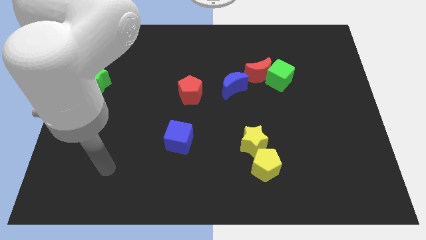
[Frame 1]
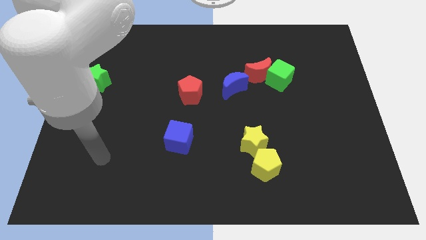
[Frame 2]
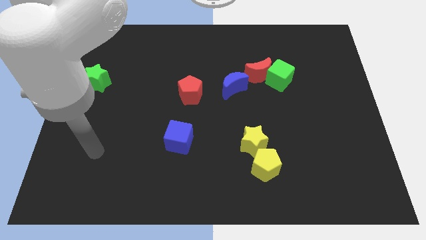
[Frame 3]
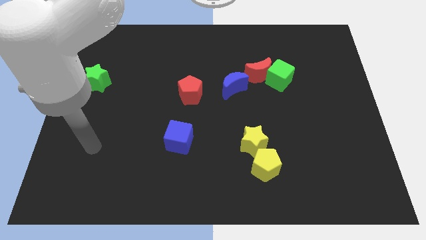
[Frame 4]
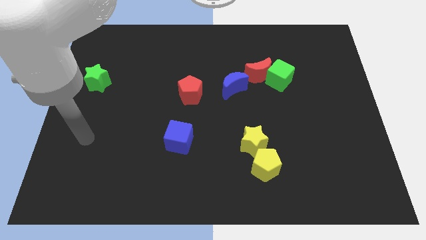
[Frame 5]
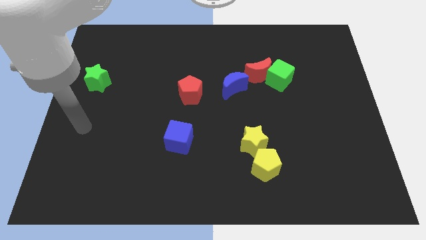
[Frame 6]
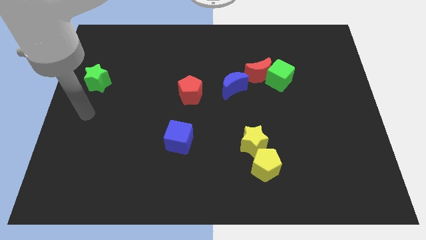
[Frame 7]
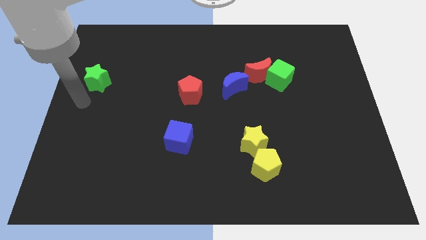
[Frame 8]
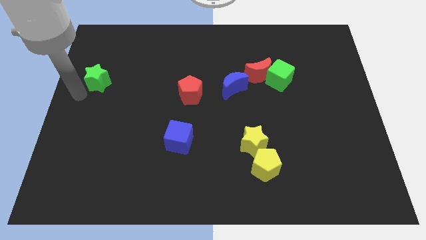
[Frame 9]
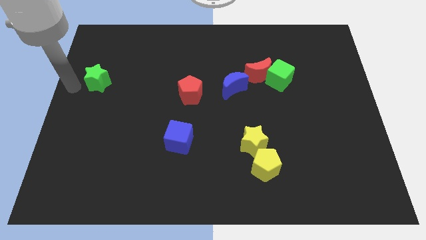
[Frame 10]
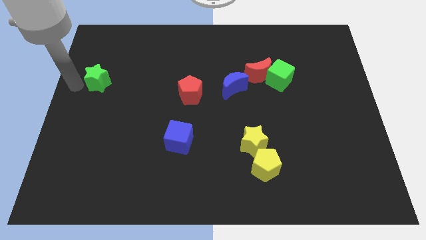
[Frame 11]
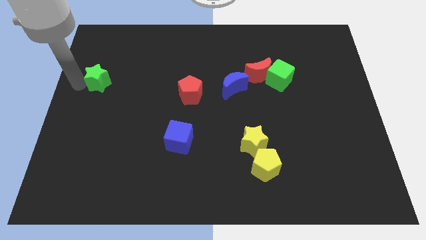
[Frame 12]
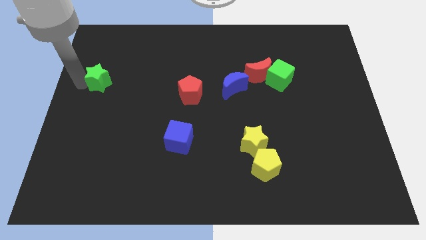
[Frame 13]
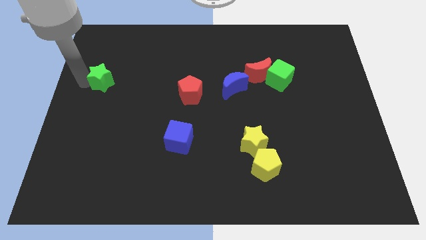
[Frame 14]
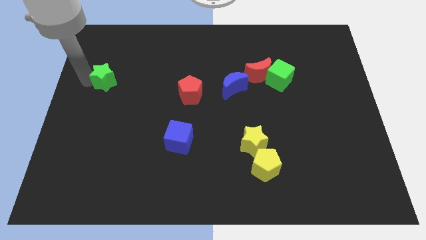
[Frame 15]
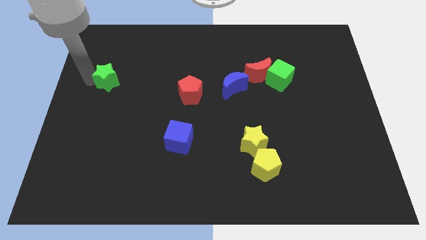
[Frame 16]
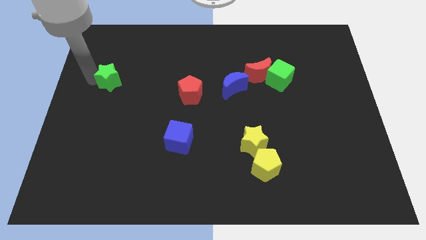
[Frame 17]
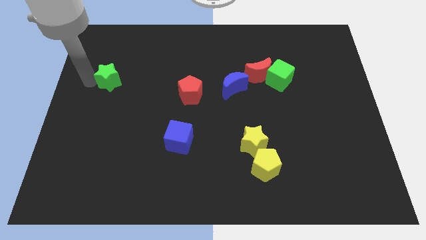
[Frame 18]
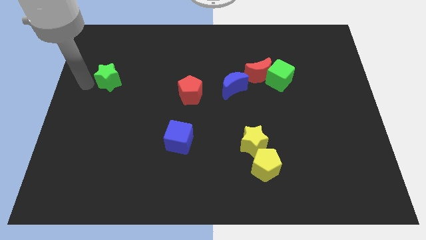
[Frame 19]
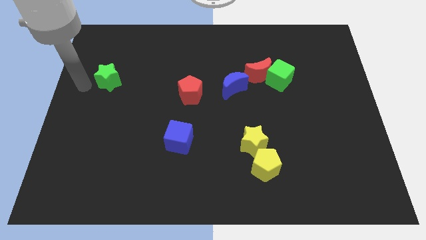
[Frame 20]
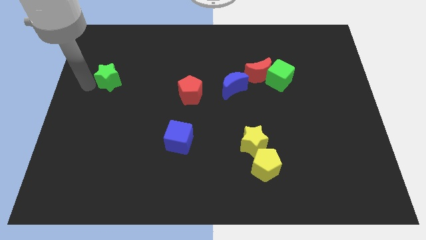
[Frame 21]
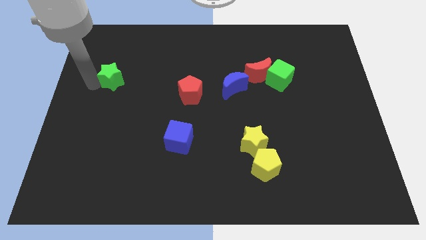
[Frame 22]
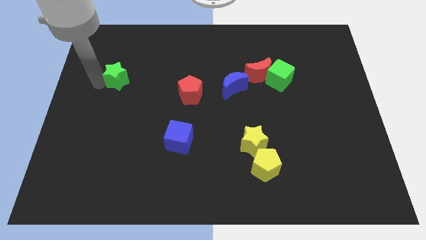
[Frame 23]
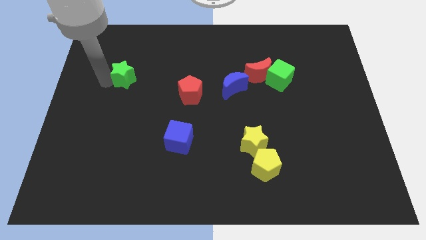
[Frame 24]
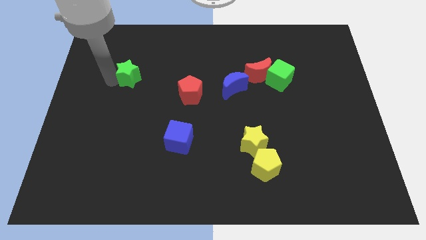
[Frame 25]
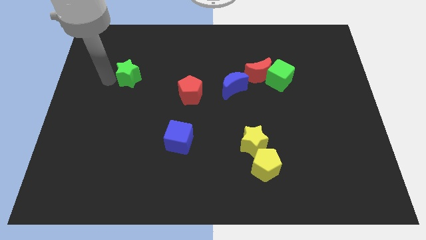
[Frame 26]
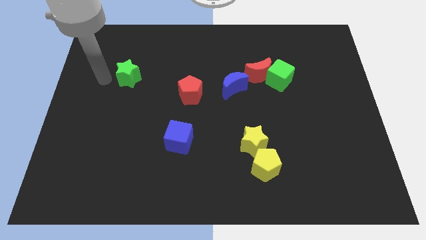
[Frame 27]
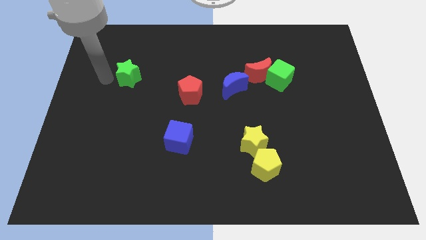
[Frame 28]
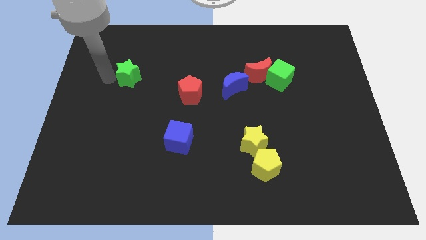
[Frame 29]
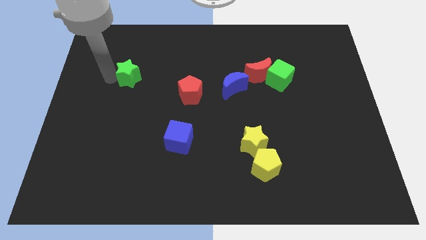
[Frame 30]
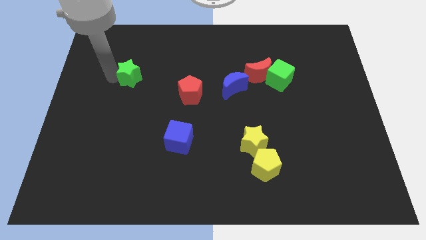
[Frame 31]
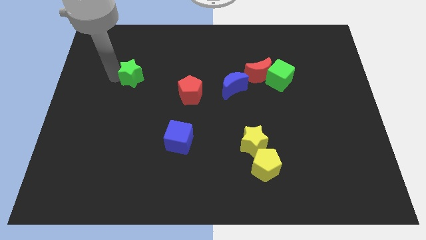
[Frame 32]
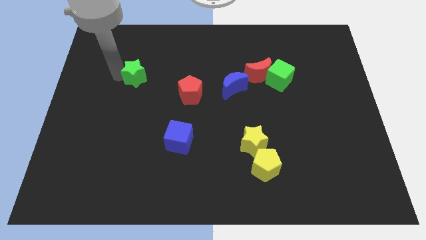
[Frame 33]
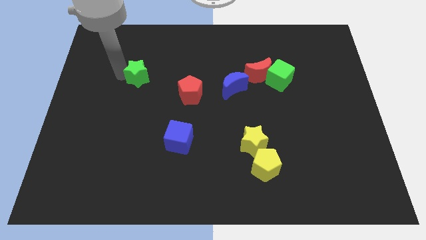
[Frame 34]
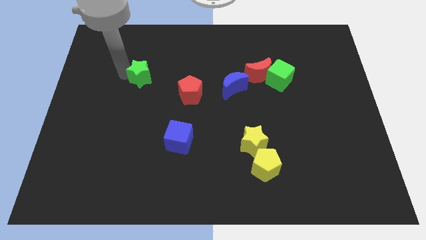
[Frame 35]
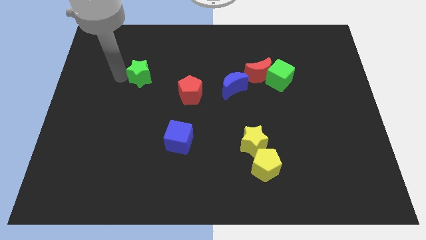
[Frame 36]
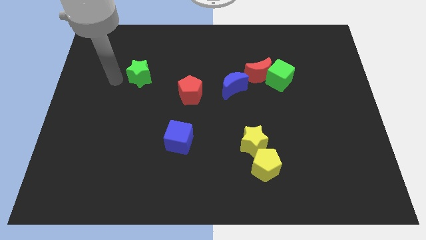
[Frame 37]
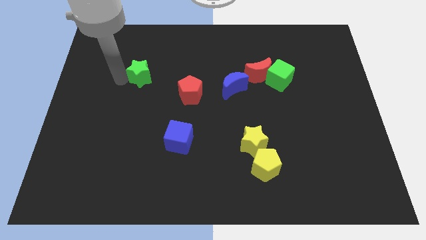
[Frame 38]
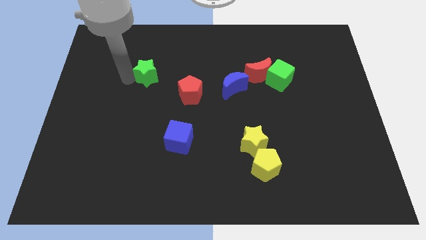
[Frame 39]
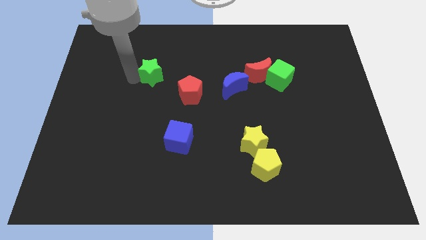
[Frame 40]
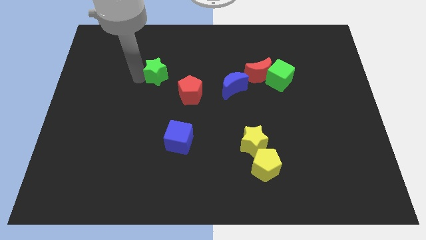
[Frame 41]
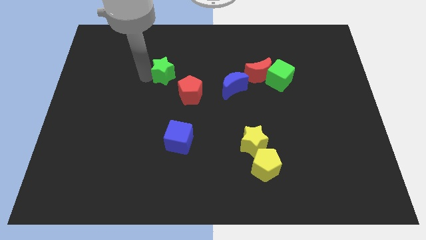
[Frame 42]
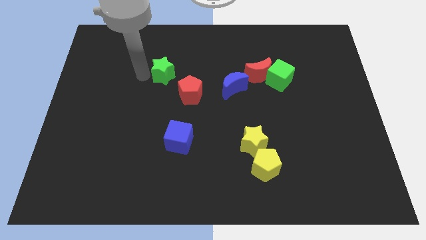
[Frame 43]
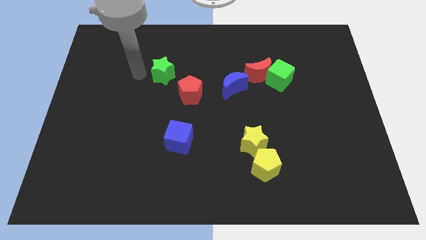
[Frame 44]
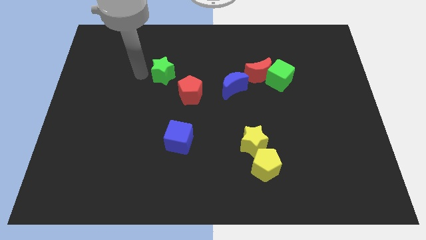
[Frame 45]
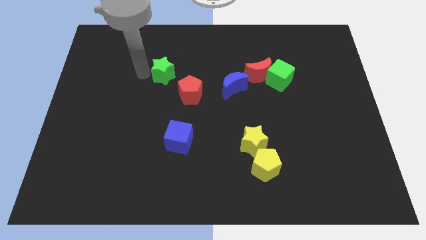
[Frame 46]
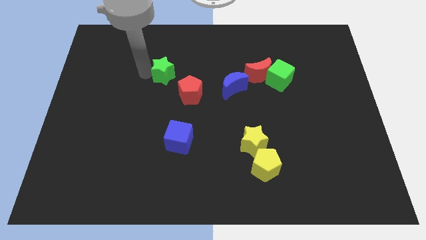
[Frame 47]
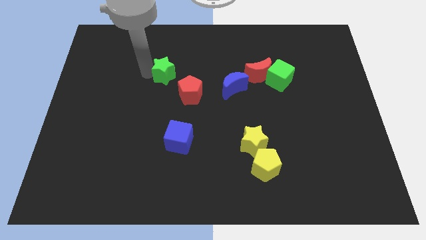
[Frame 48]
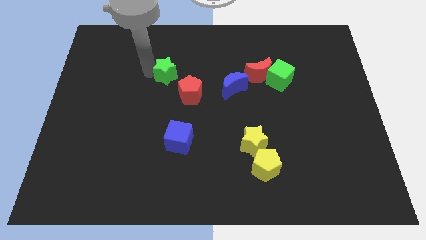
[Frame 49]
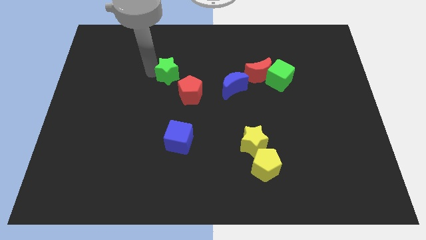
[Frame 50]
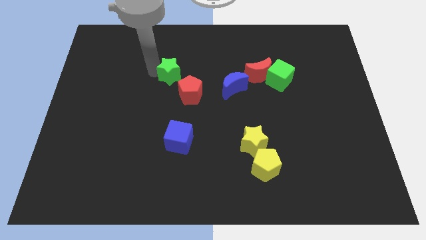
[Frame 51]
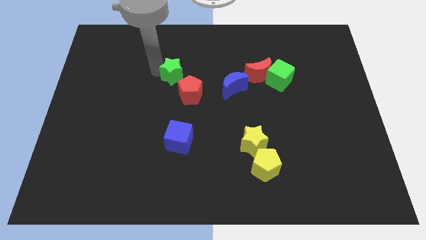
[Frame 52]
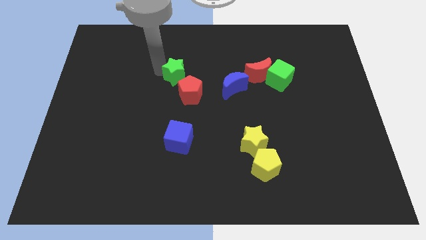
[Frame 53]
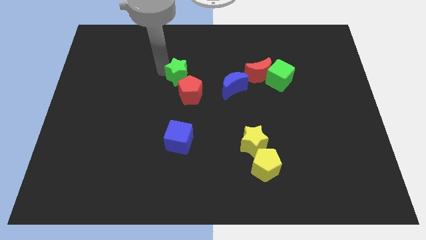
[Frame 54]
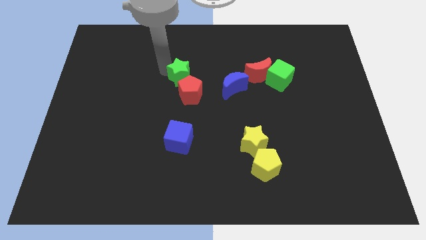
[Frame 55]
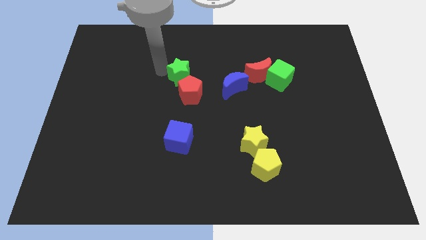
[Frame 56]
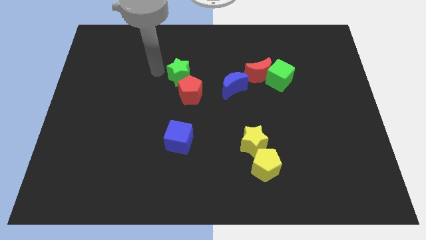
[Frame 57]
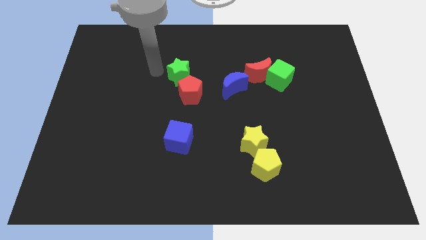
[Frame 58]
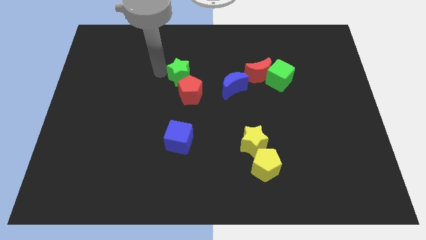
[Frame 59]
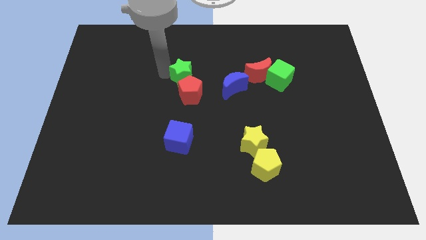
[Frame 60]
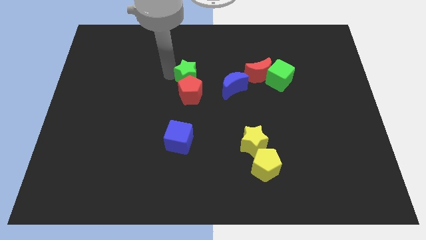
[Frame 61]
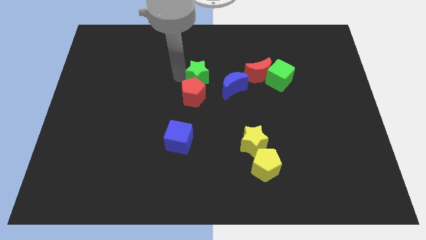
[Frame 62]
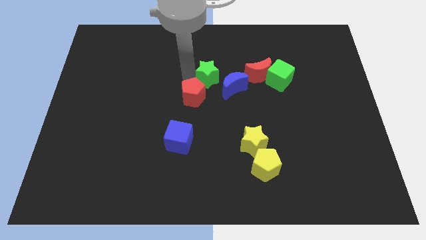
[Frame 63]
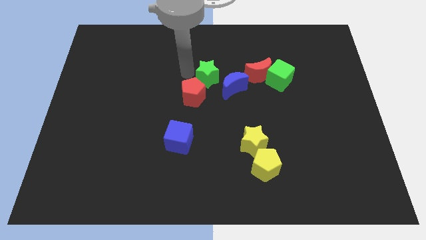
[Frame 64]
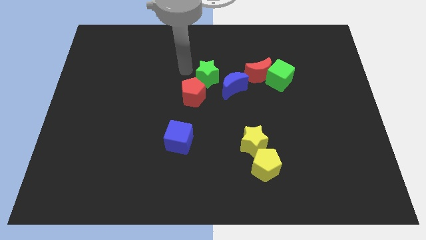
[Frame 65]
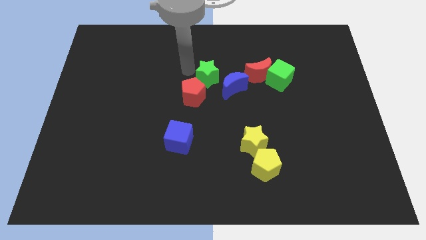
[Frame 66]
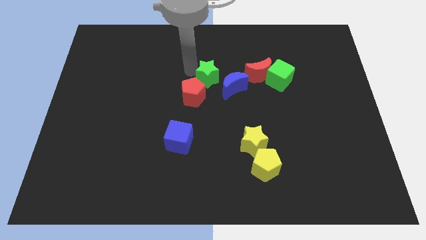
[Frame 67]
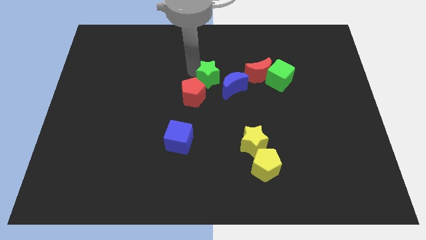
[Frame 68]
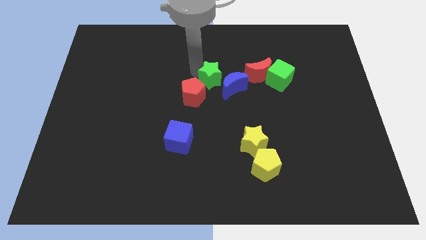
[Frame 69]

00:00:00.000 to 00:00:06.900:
move the green star to the blue moon
